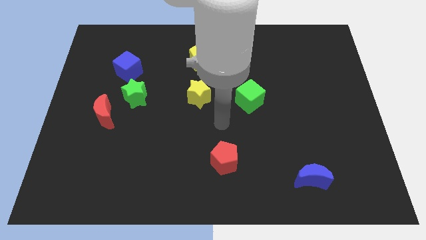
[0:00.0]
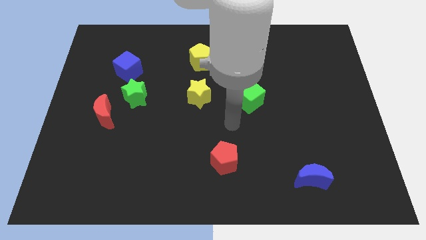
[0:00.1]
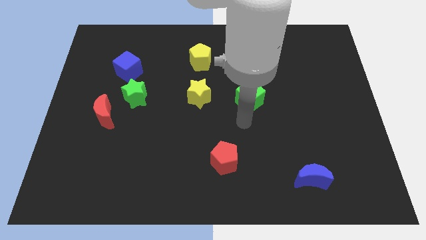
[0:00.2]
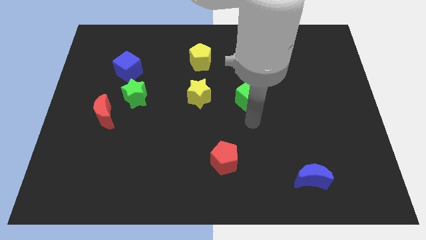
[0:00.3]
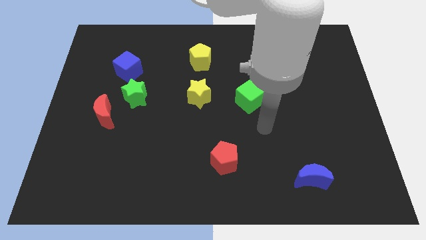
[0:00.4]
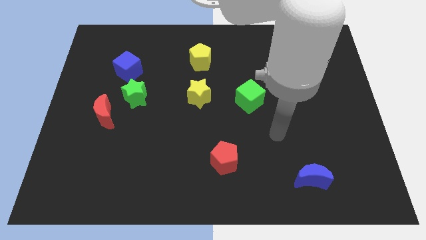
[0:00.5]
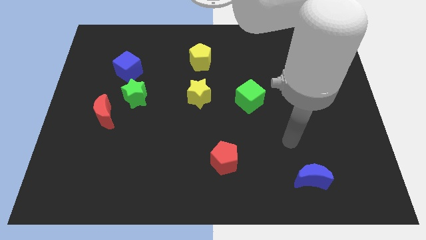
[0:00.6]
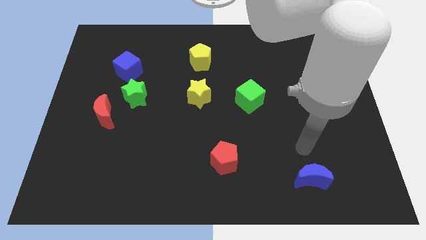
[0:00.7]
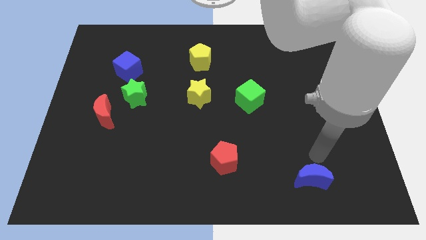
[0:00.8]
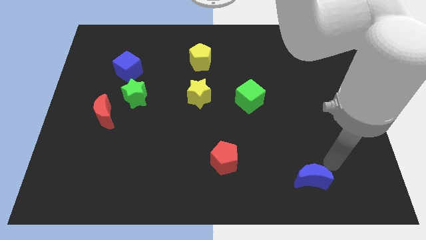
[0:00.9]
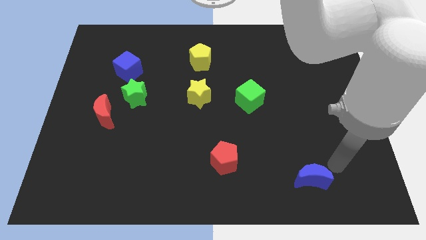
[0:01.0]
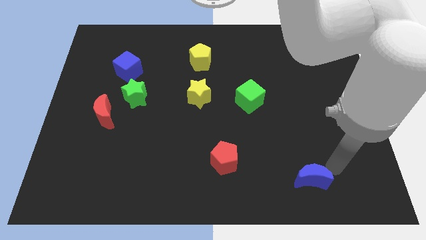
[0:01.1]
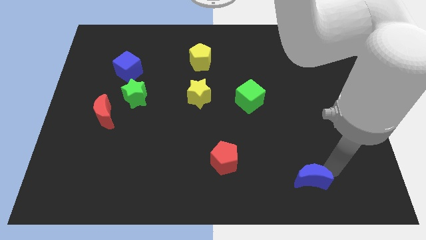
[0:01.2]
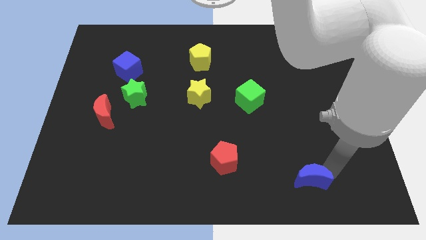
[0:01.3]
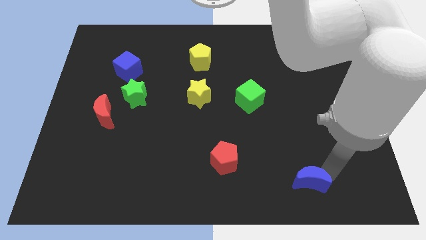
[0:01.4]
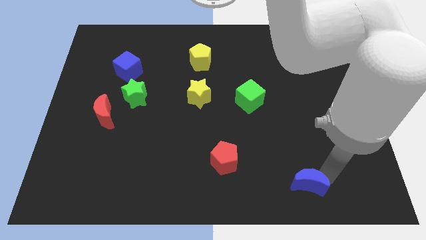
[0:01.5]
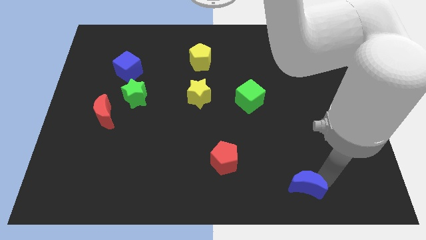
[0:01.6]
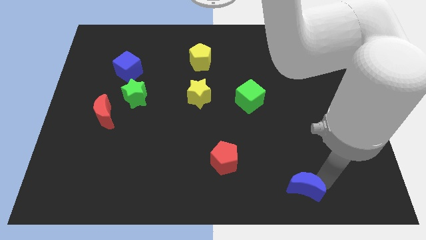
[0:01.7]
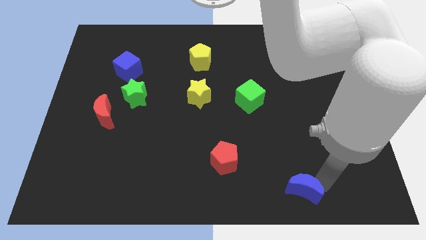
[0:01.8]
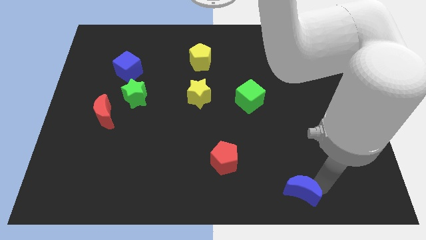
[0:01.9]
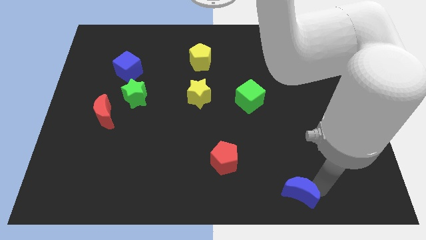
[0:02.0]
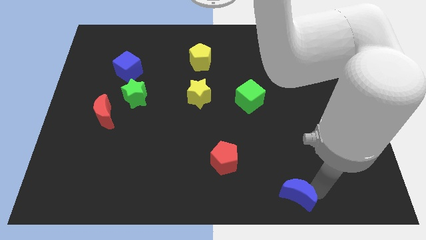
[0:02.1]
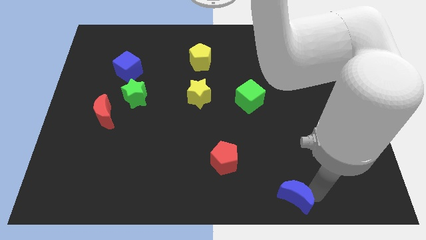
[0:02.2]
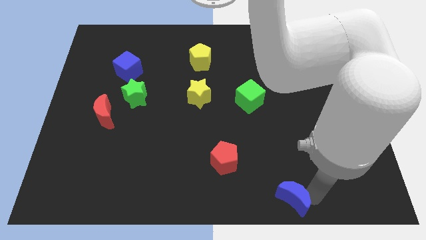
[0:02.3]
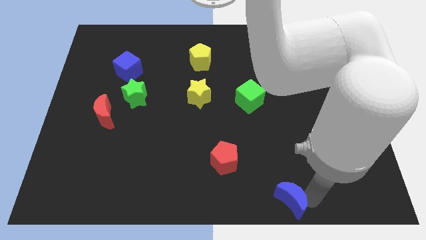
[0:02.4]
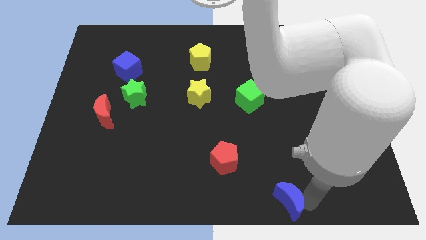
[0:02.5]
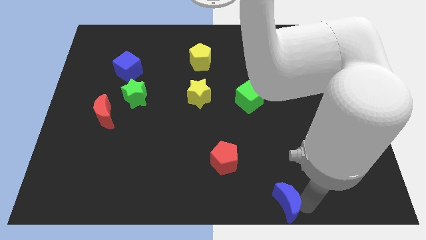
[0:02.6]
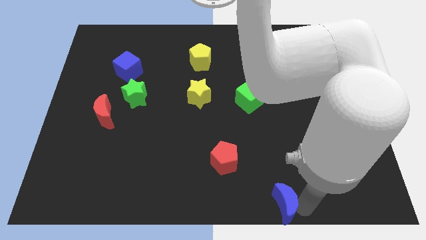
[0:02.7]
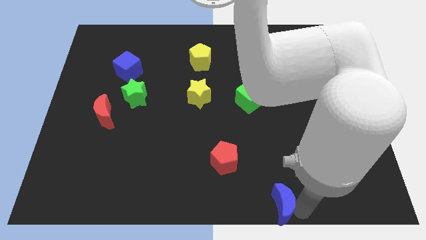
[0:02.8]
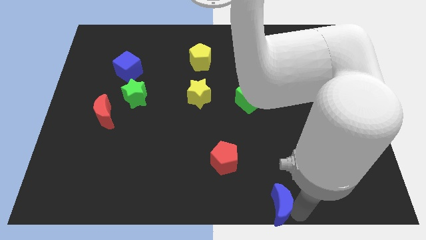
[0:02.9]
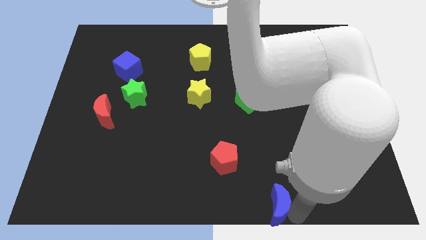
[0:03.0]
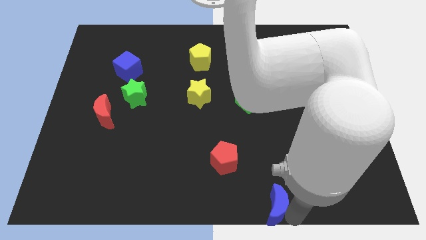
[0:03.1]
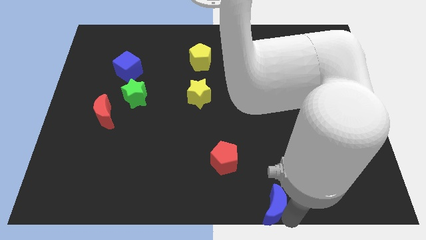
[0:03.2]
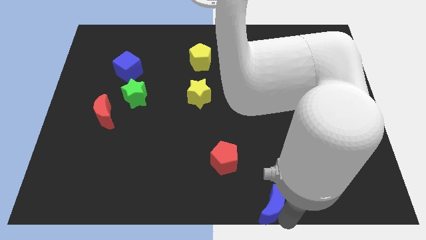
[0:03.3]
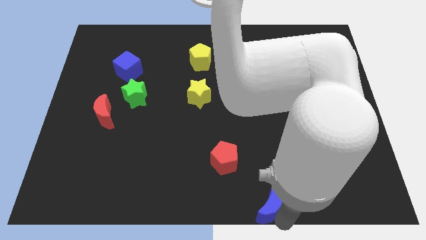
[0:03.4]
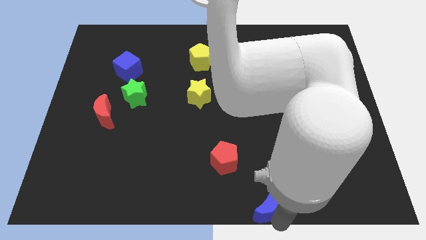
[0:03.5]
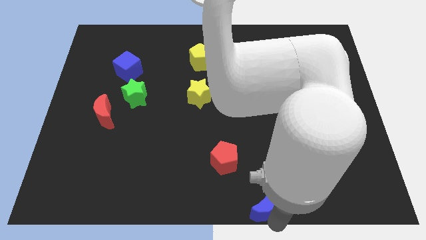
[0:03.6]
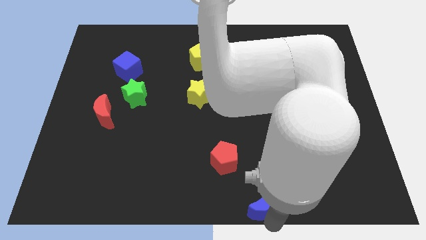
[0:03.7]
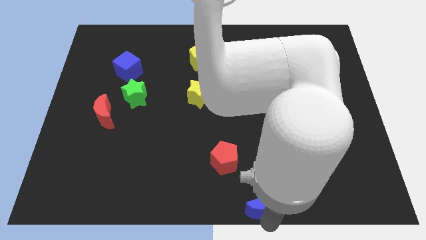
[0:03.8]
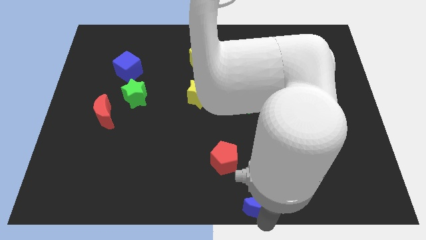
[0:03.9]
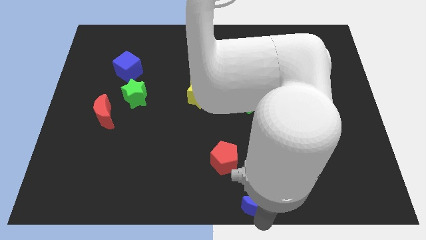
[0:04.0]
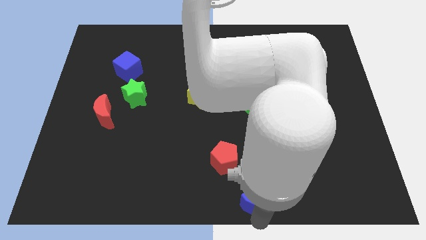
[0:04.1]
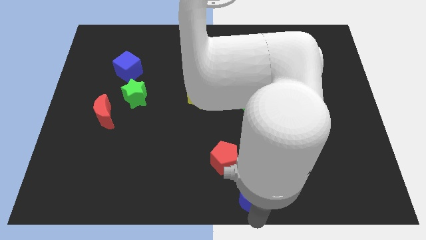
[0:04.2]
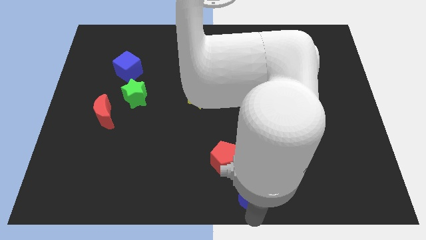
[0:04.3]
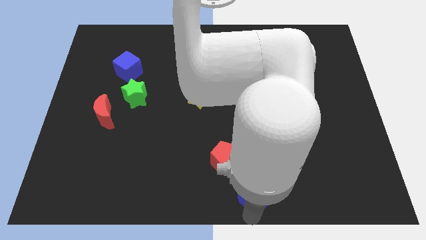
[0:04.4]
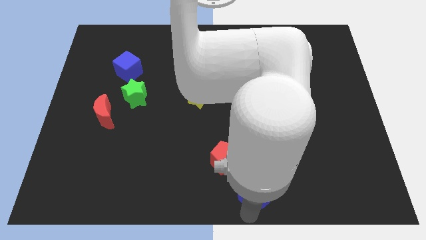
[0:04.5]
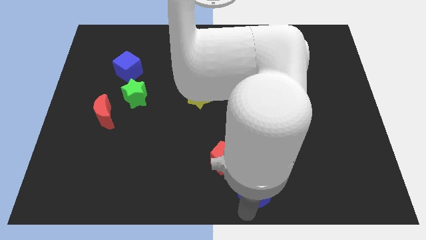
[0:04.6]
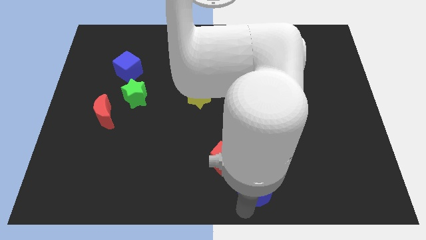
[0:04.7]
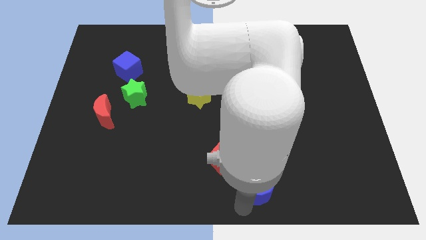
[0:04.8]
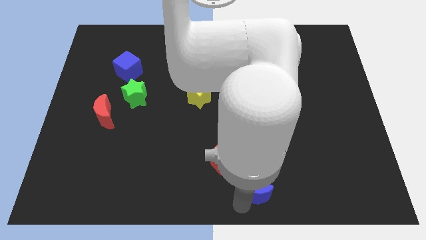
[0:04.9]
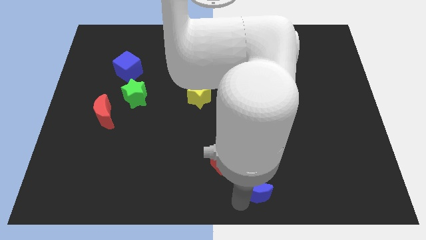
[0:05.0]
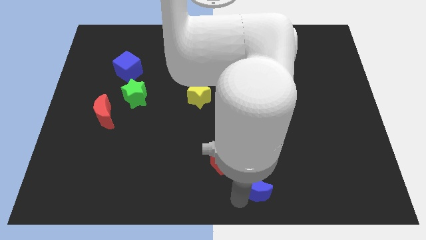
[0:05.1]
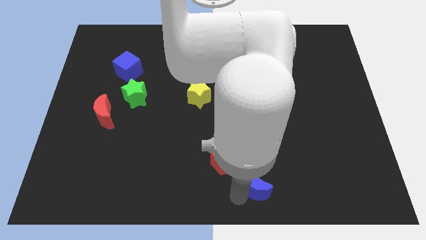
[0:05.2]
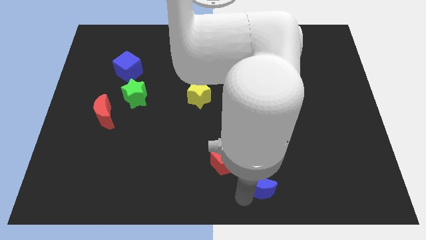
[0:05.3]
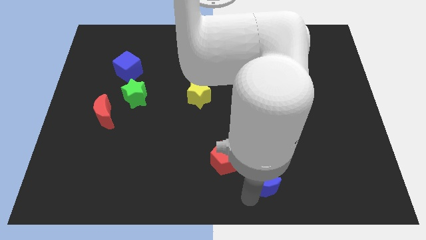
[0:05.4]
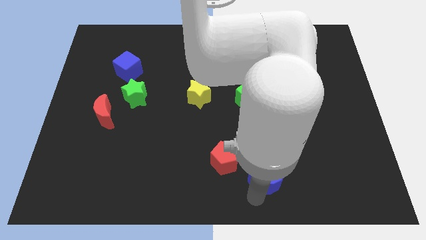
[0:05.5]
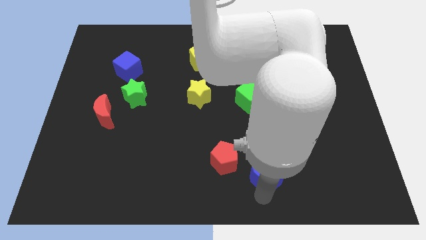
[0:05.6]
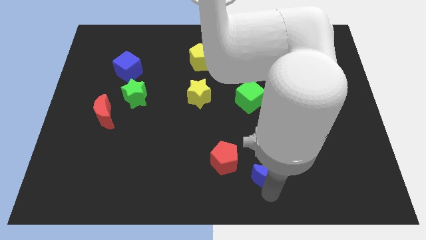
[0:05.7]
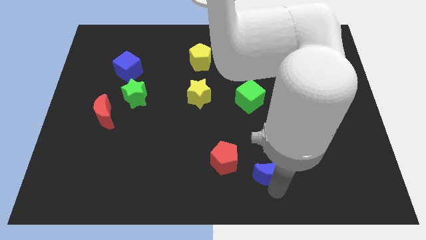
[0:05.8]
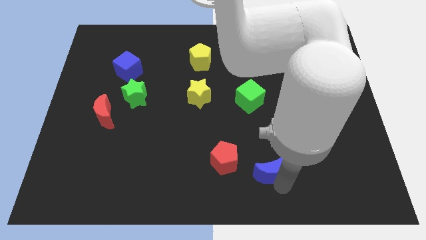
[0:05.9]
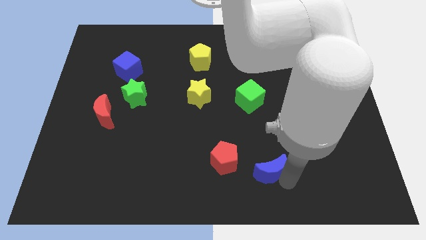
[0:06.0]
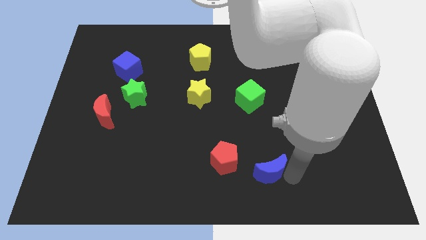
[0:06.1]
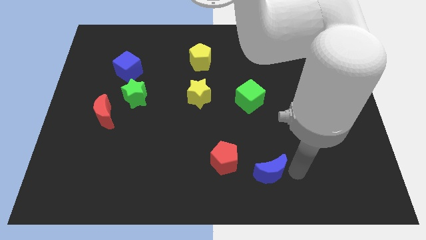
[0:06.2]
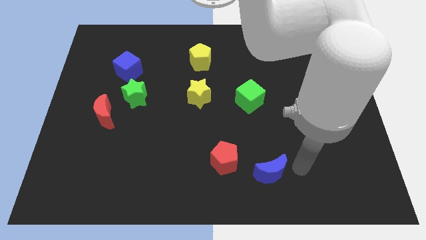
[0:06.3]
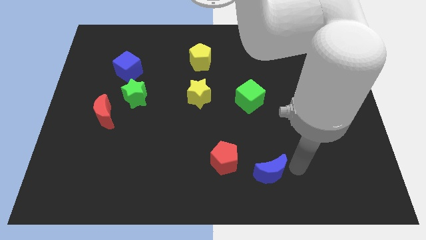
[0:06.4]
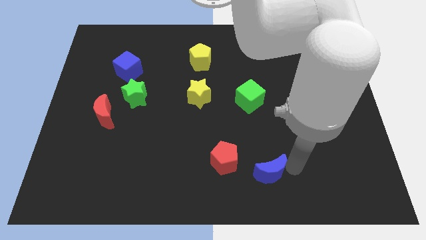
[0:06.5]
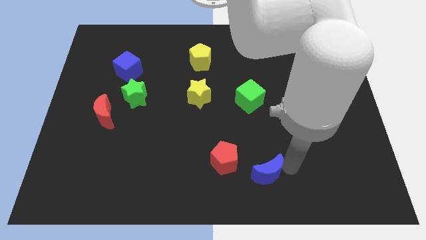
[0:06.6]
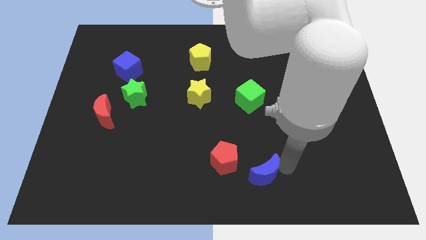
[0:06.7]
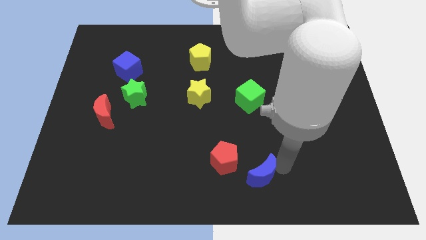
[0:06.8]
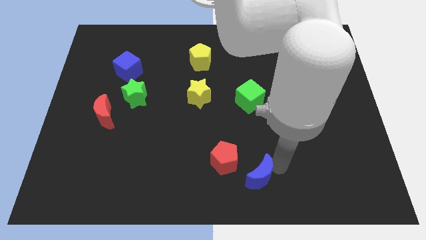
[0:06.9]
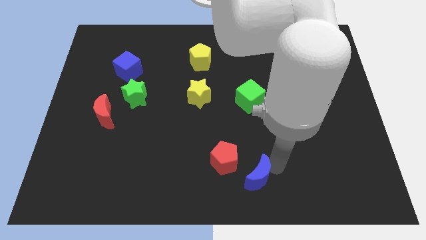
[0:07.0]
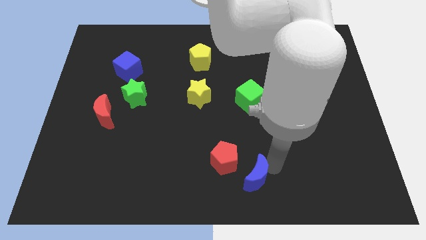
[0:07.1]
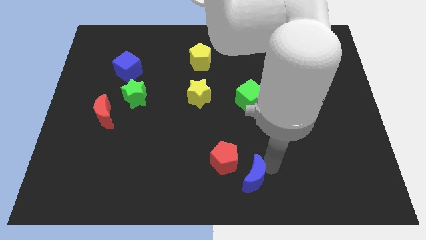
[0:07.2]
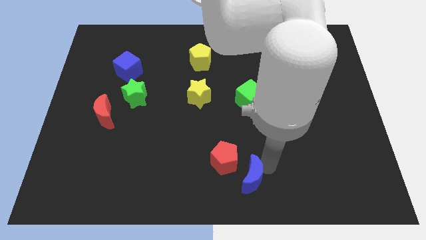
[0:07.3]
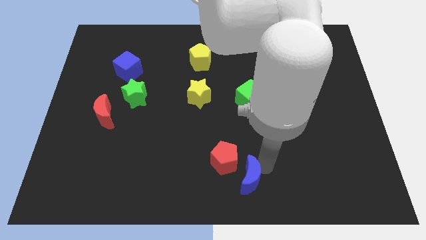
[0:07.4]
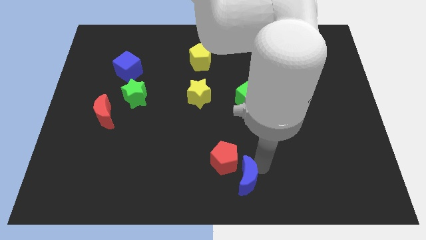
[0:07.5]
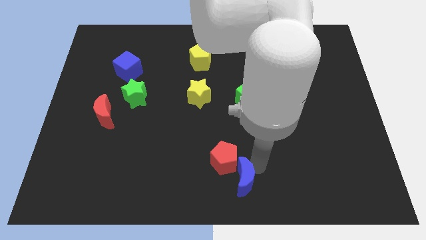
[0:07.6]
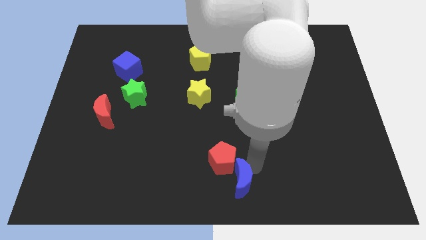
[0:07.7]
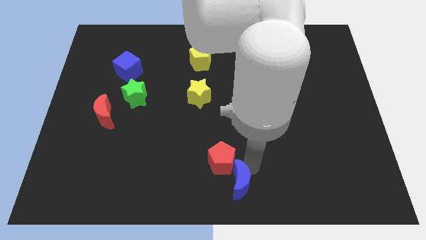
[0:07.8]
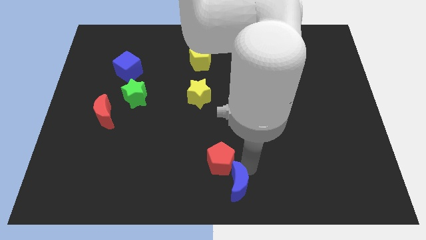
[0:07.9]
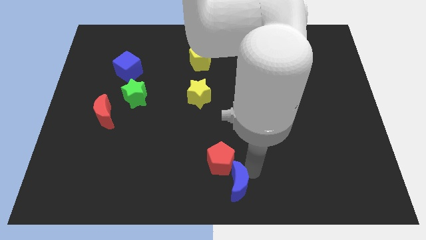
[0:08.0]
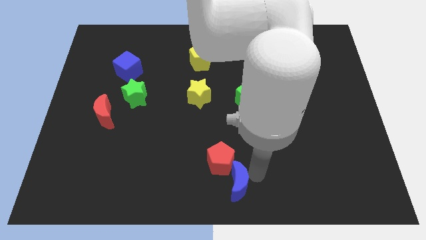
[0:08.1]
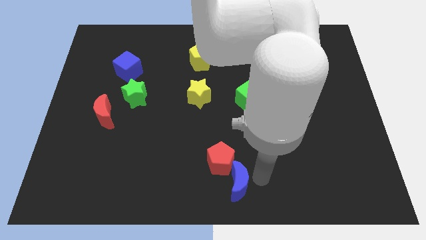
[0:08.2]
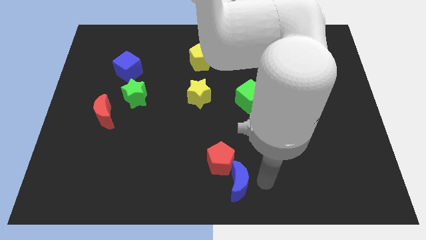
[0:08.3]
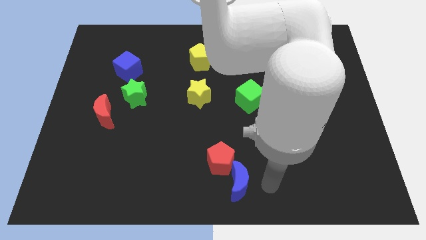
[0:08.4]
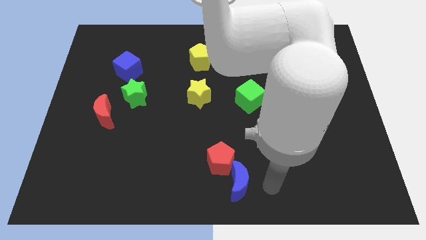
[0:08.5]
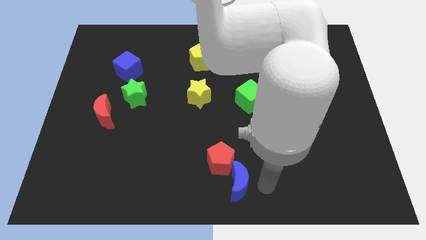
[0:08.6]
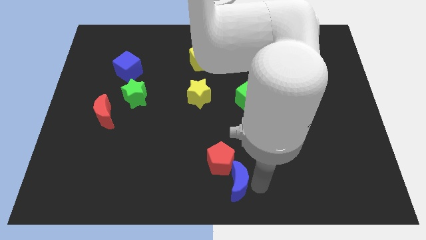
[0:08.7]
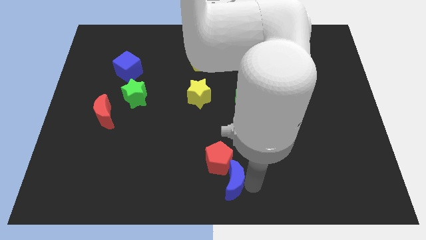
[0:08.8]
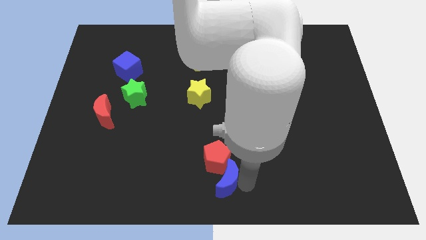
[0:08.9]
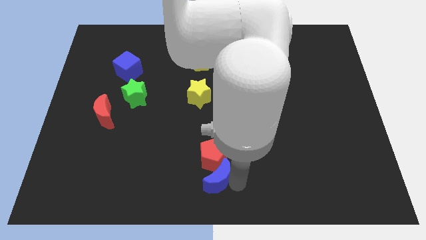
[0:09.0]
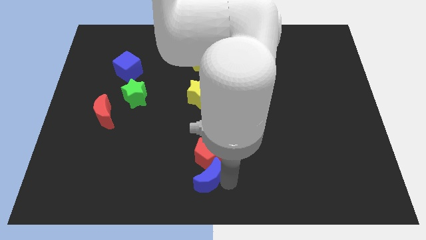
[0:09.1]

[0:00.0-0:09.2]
push the blue moon left
